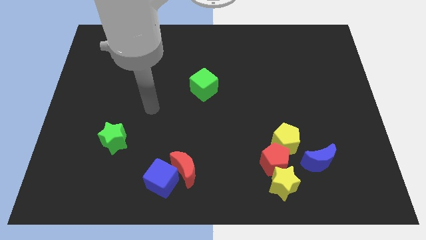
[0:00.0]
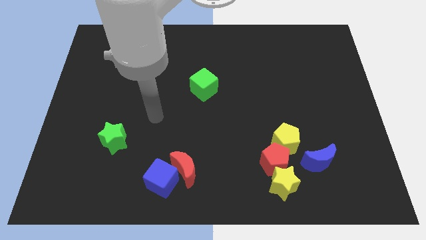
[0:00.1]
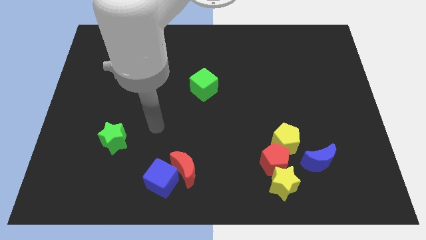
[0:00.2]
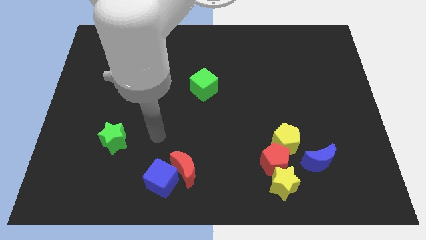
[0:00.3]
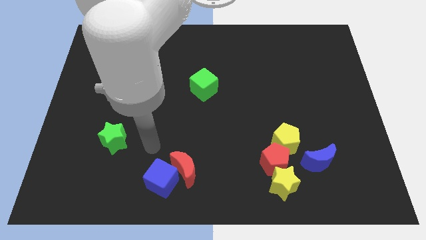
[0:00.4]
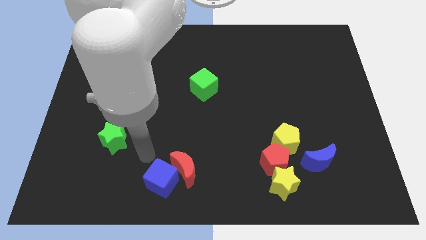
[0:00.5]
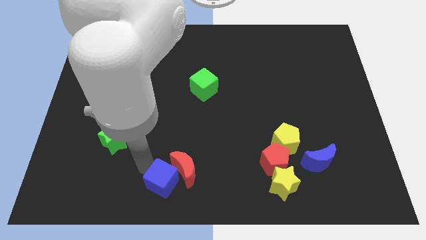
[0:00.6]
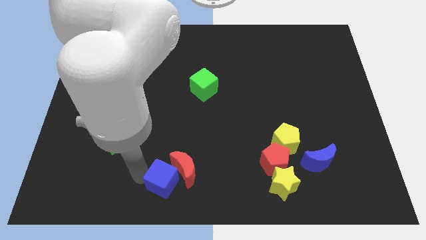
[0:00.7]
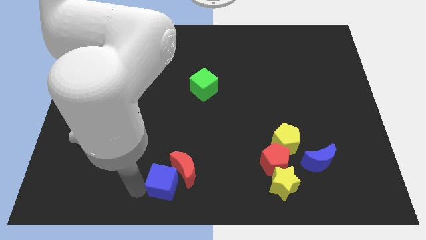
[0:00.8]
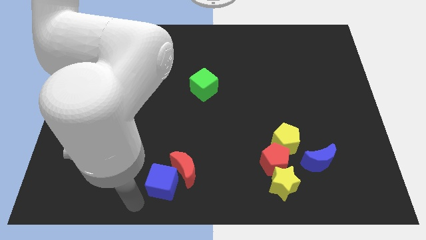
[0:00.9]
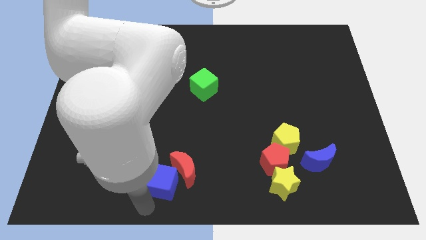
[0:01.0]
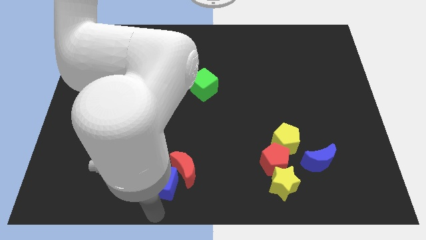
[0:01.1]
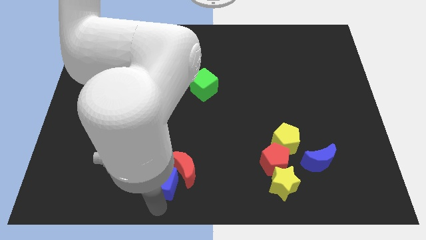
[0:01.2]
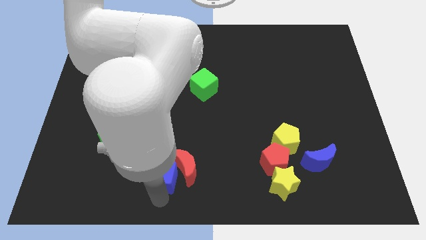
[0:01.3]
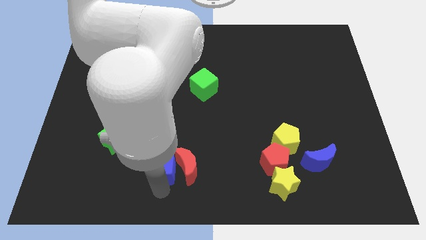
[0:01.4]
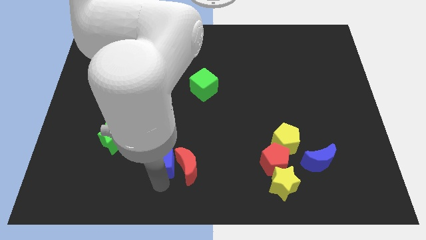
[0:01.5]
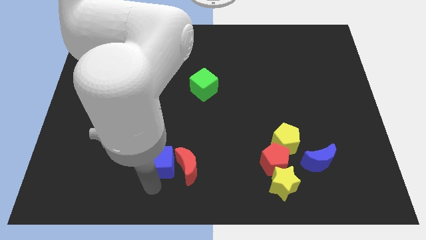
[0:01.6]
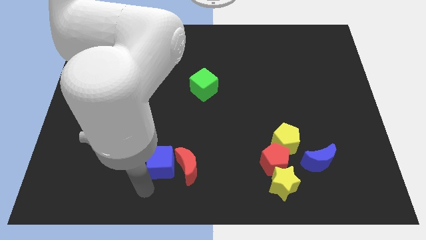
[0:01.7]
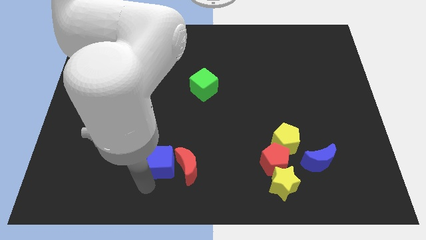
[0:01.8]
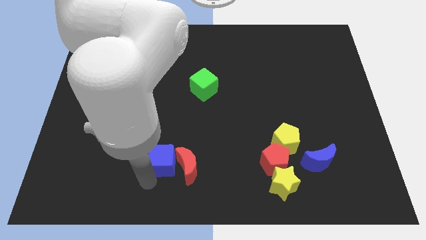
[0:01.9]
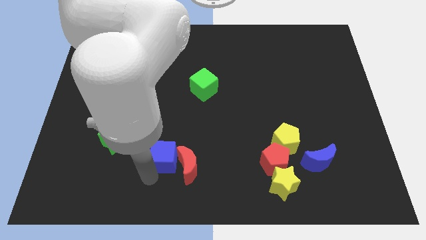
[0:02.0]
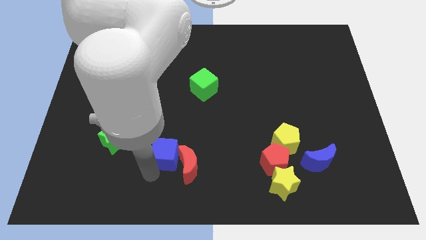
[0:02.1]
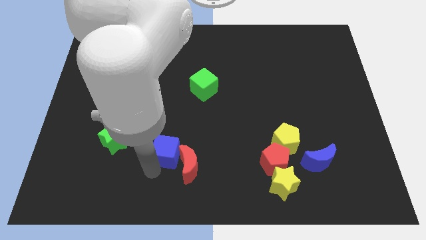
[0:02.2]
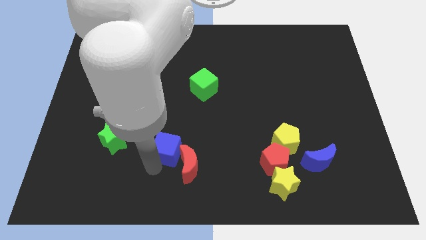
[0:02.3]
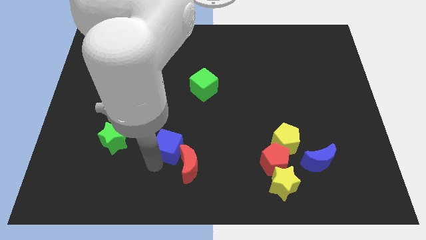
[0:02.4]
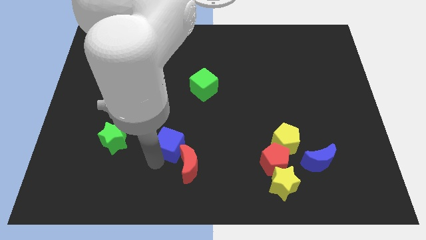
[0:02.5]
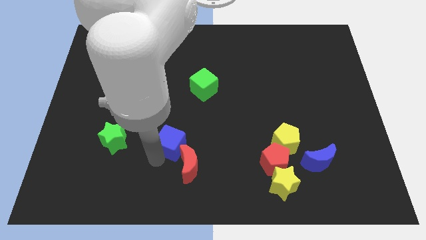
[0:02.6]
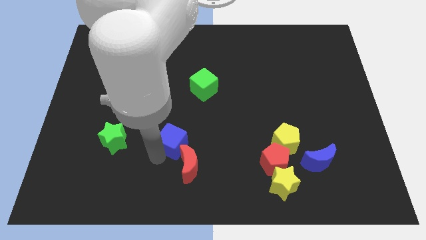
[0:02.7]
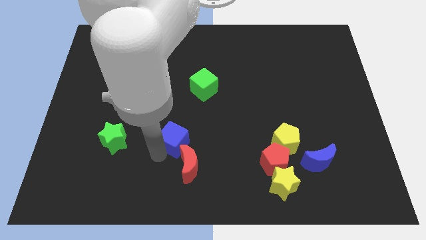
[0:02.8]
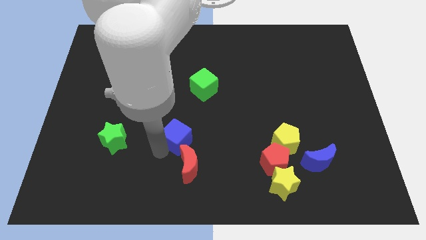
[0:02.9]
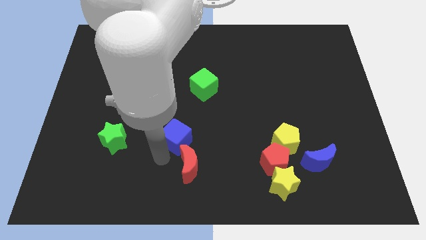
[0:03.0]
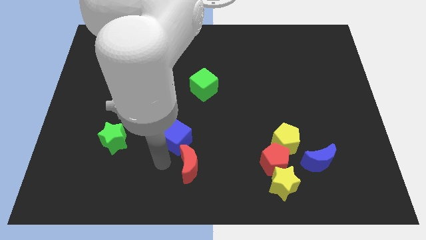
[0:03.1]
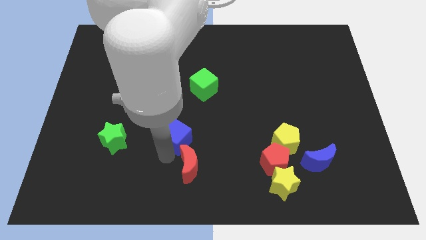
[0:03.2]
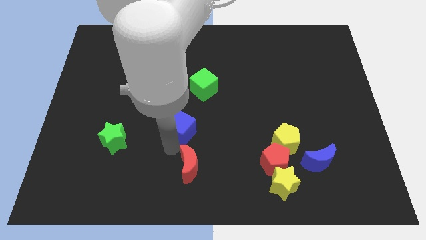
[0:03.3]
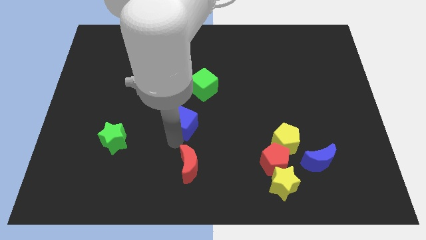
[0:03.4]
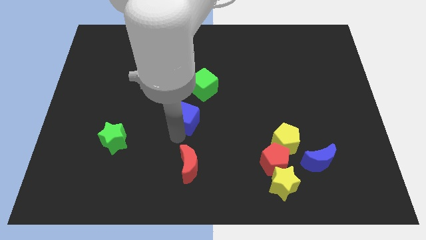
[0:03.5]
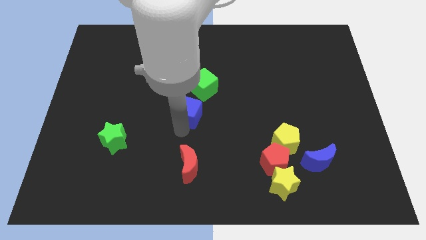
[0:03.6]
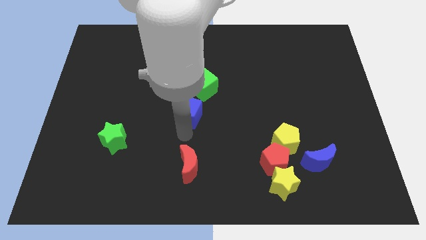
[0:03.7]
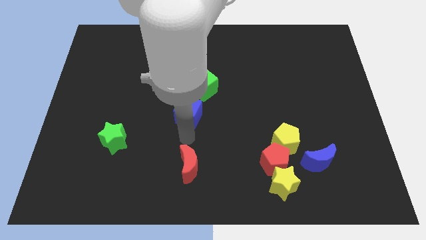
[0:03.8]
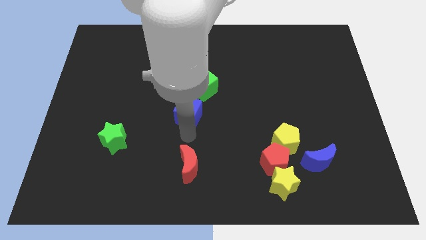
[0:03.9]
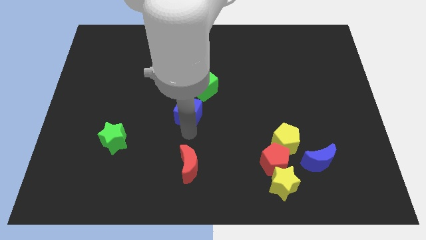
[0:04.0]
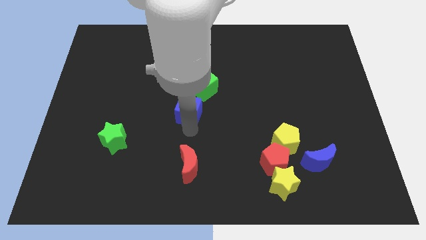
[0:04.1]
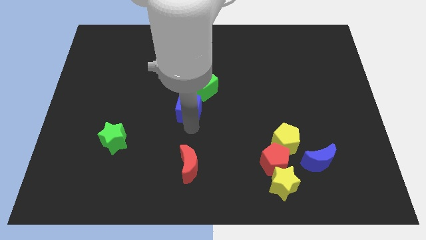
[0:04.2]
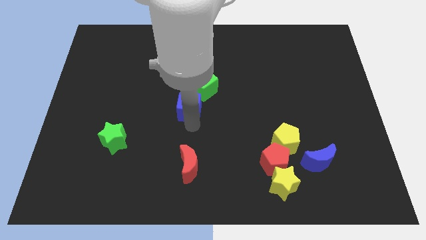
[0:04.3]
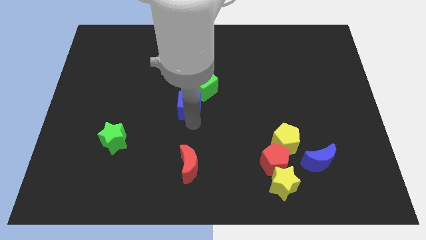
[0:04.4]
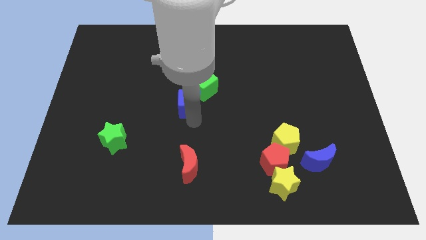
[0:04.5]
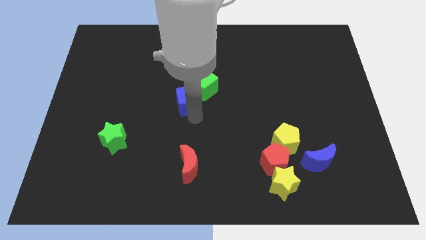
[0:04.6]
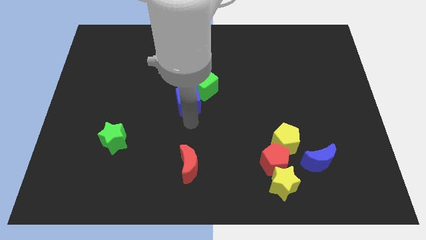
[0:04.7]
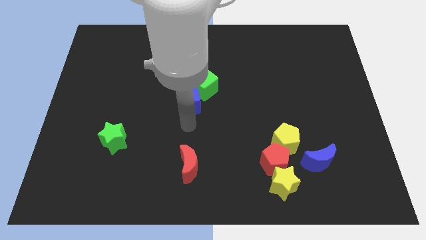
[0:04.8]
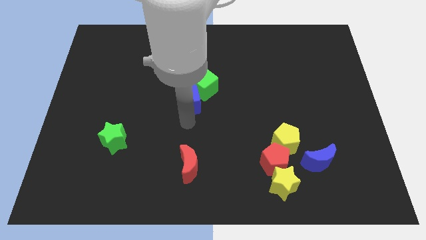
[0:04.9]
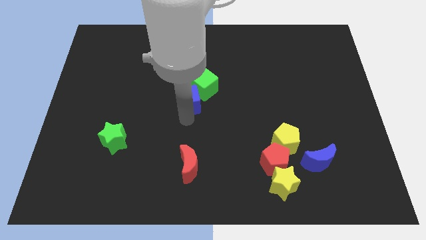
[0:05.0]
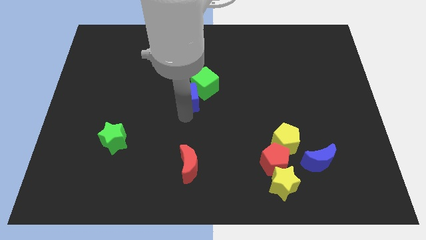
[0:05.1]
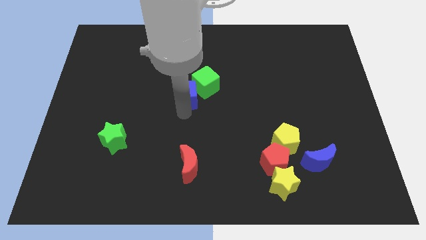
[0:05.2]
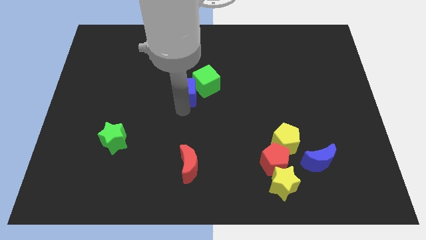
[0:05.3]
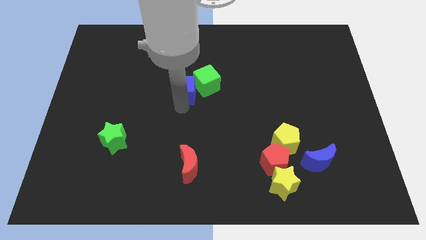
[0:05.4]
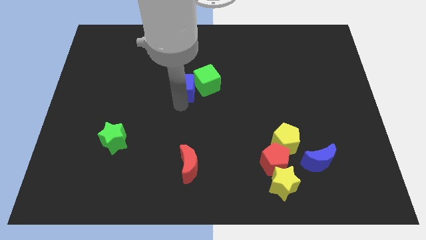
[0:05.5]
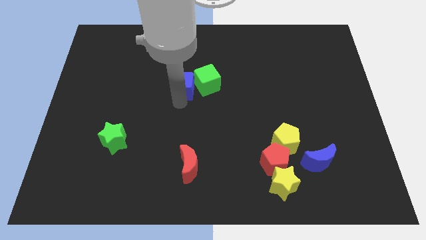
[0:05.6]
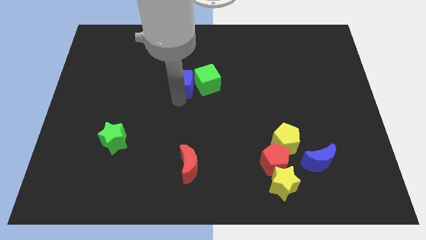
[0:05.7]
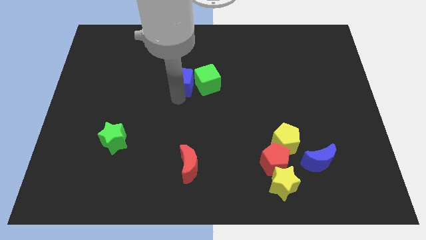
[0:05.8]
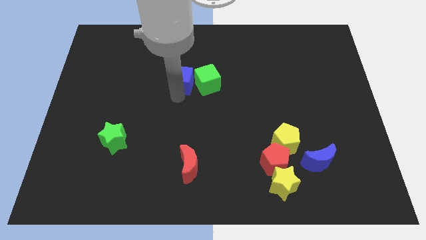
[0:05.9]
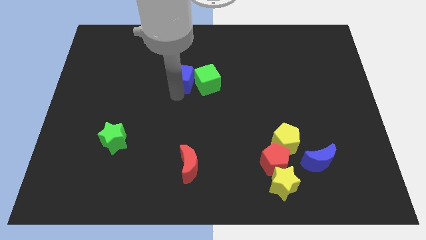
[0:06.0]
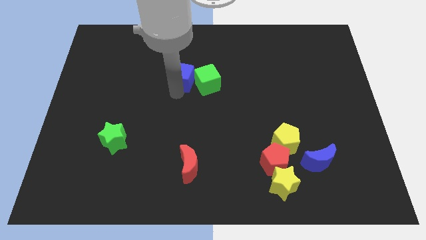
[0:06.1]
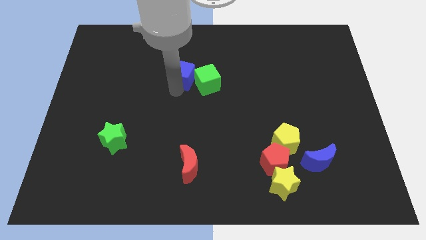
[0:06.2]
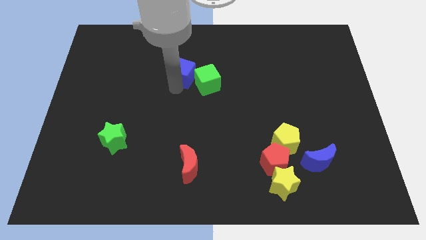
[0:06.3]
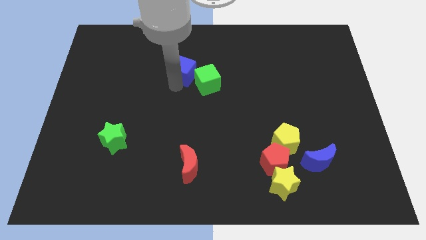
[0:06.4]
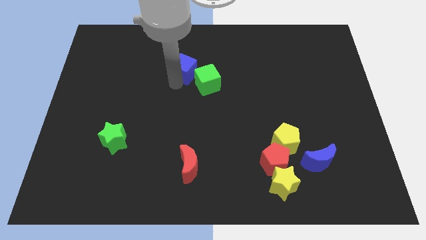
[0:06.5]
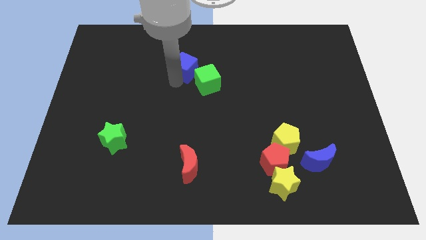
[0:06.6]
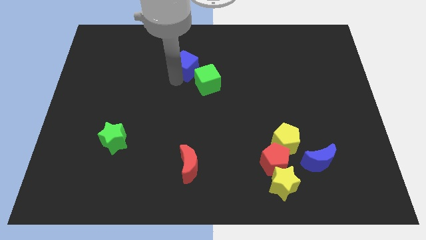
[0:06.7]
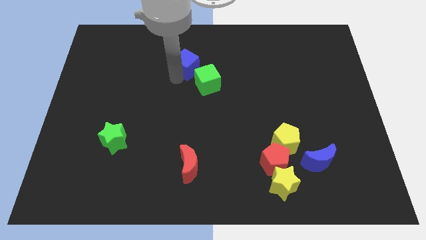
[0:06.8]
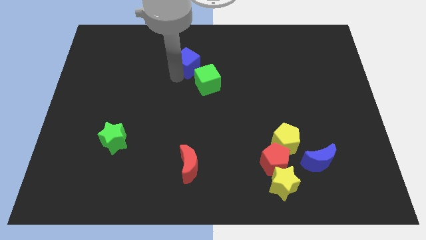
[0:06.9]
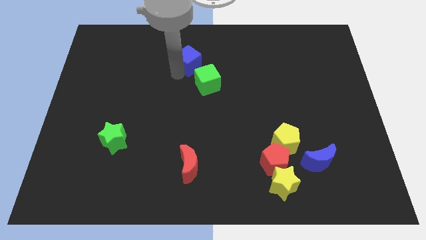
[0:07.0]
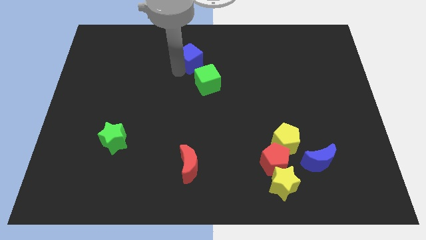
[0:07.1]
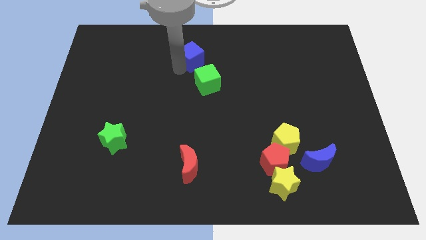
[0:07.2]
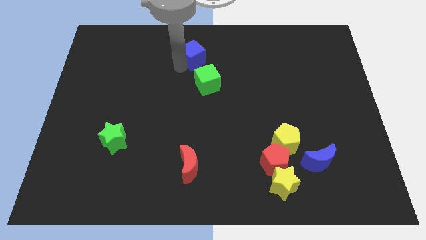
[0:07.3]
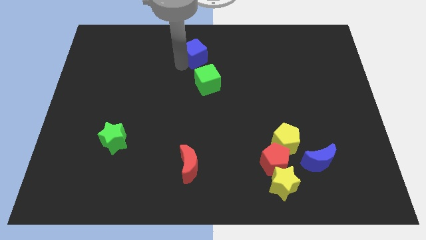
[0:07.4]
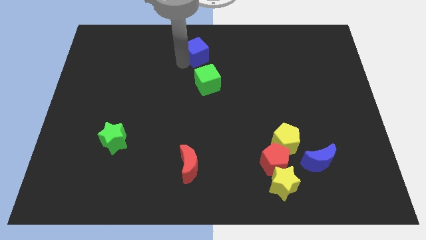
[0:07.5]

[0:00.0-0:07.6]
push the blue cube to the top
